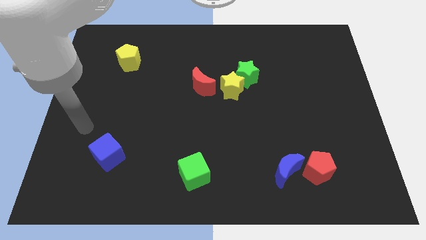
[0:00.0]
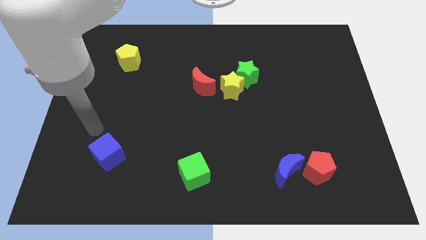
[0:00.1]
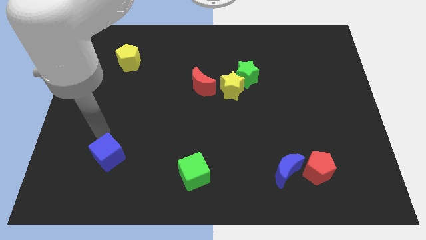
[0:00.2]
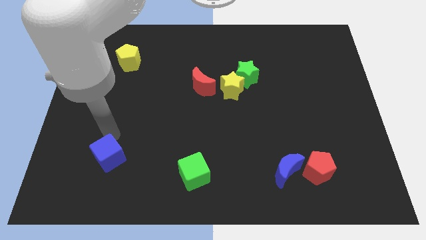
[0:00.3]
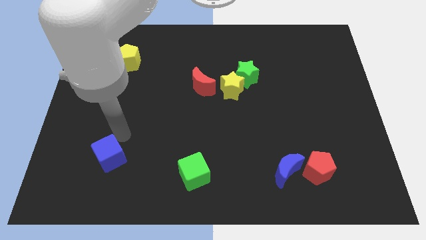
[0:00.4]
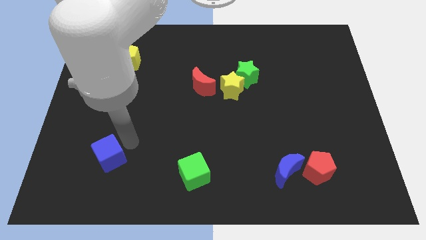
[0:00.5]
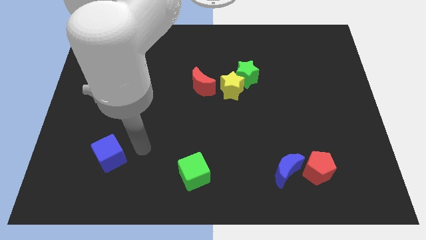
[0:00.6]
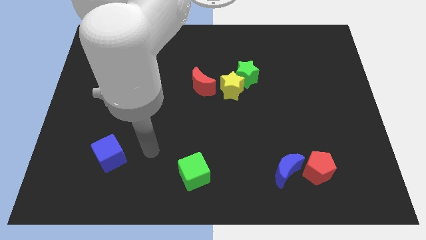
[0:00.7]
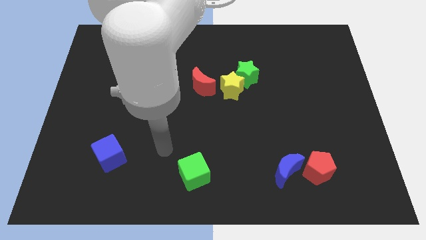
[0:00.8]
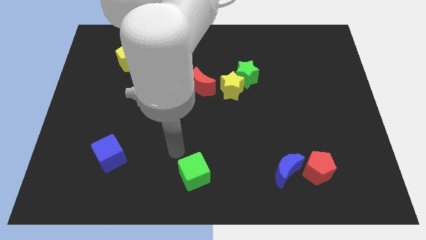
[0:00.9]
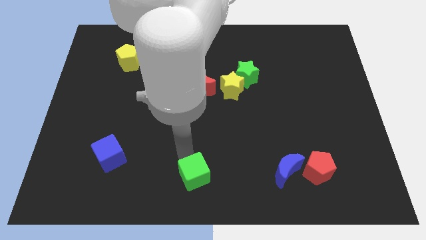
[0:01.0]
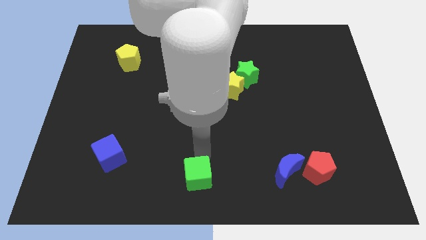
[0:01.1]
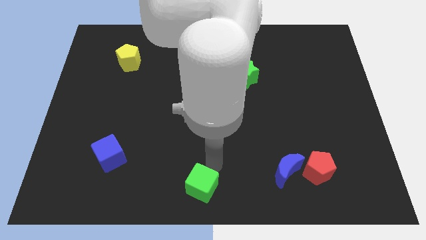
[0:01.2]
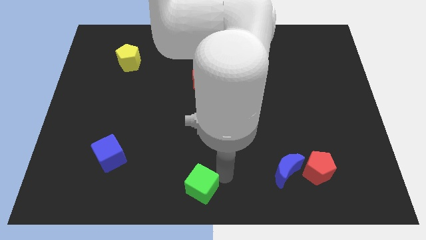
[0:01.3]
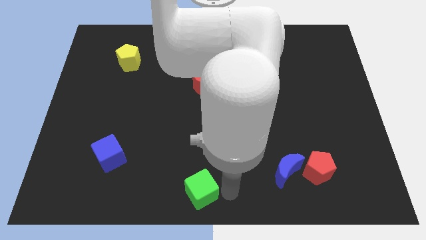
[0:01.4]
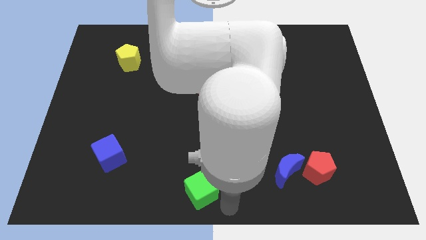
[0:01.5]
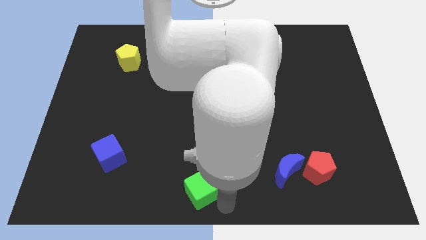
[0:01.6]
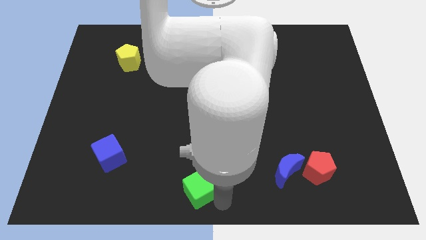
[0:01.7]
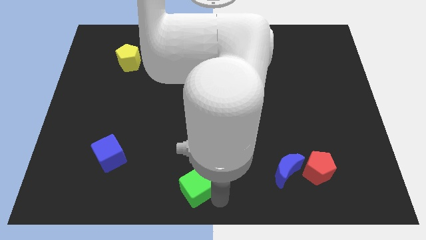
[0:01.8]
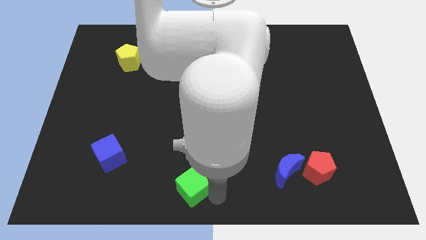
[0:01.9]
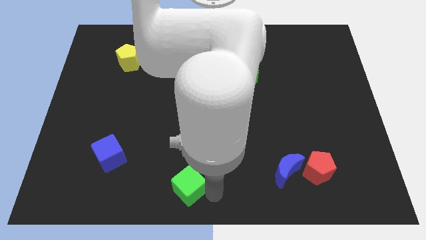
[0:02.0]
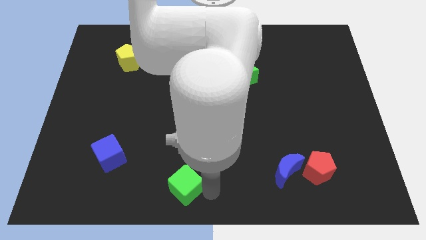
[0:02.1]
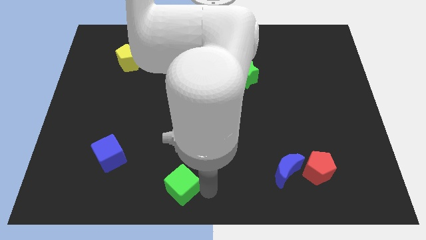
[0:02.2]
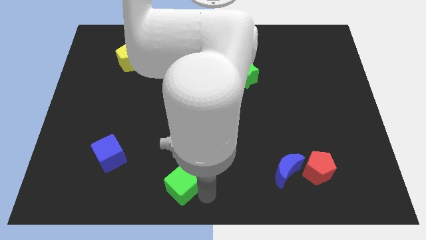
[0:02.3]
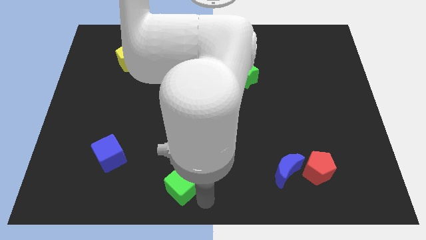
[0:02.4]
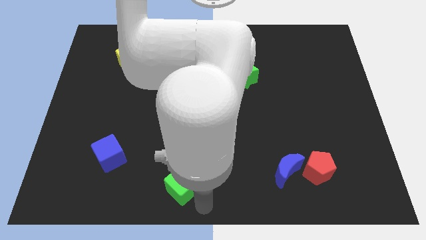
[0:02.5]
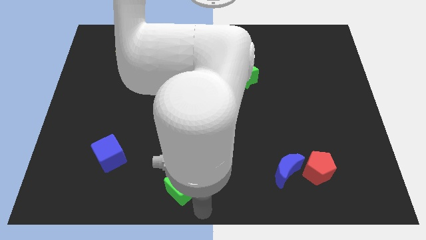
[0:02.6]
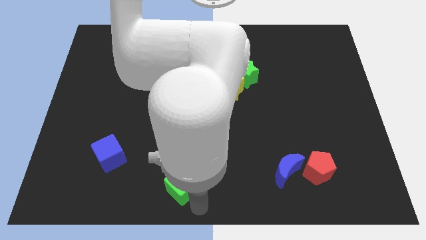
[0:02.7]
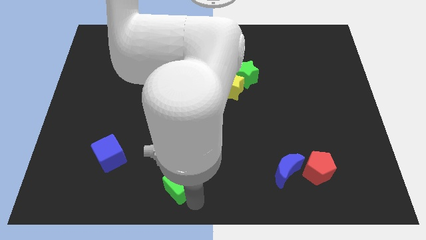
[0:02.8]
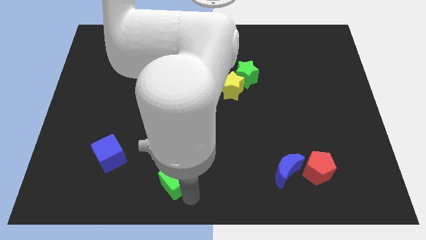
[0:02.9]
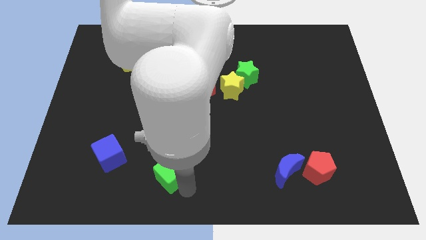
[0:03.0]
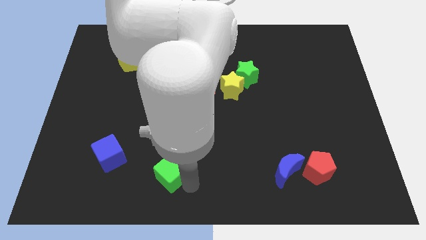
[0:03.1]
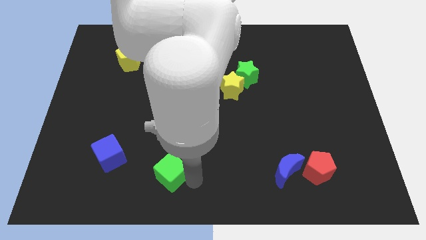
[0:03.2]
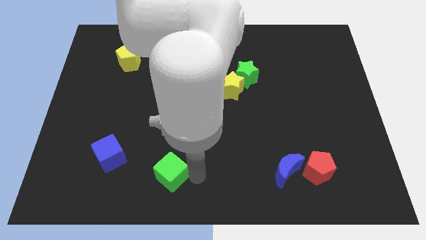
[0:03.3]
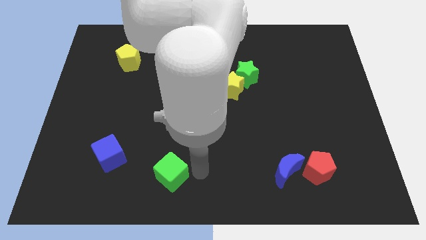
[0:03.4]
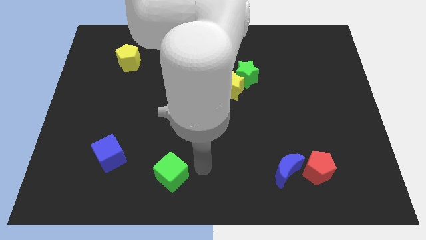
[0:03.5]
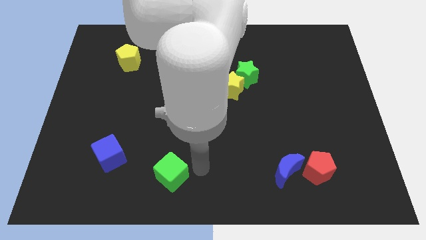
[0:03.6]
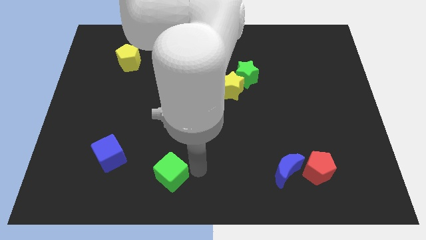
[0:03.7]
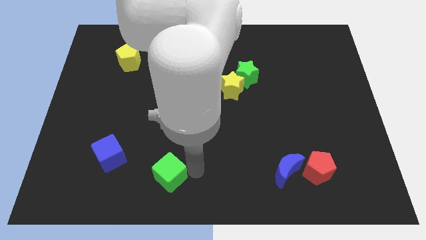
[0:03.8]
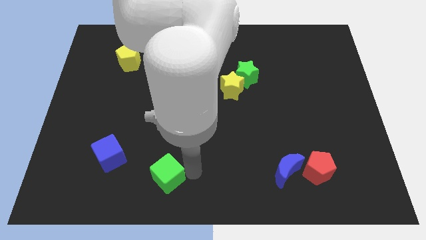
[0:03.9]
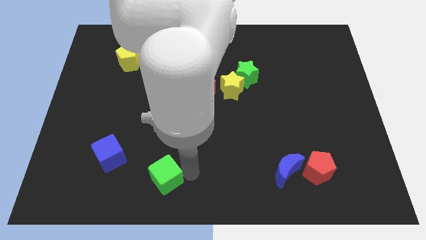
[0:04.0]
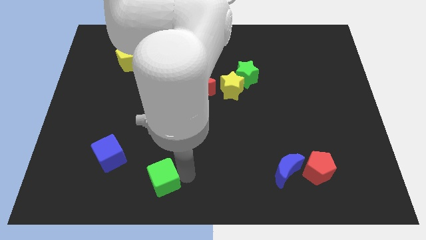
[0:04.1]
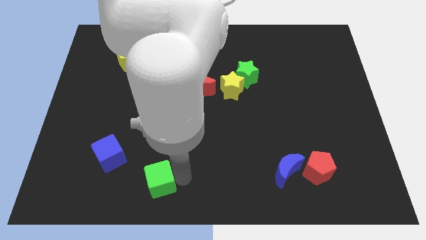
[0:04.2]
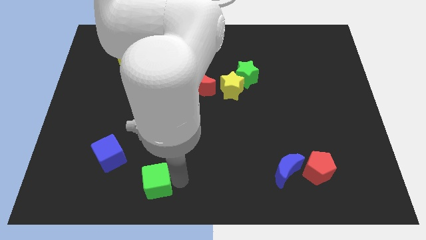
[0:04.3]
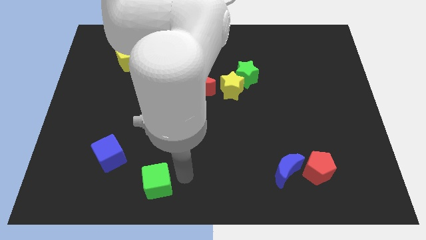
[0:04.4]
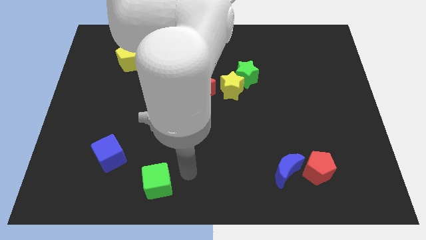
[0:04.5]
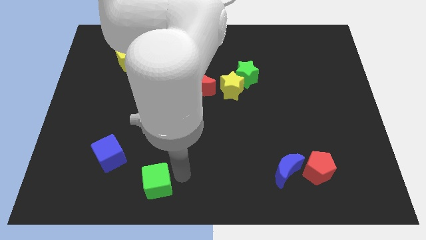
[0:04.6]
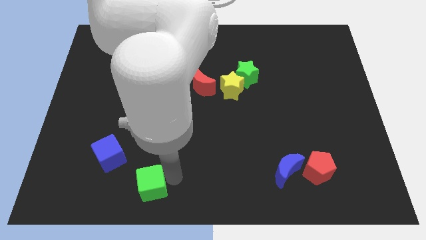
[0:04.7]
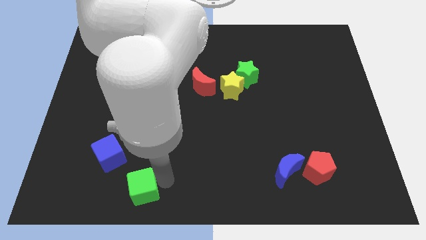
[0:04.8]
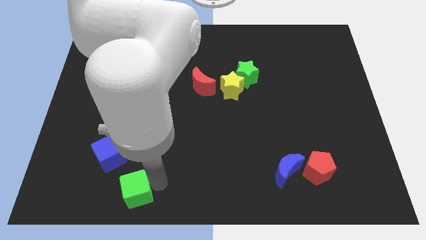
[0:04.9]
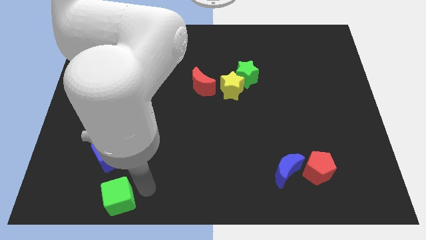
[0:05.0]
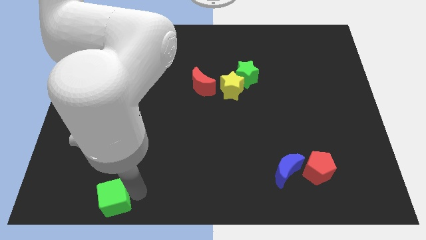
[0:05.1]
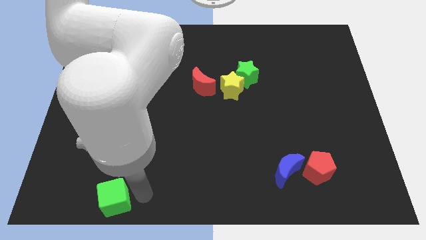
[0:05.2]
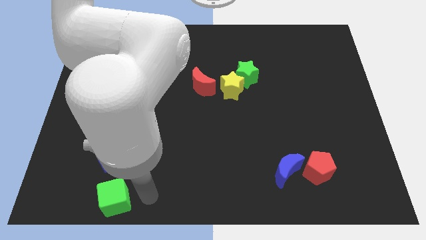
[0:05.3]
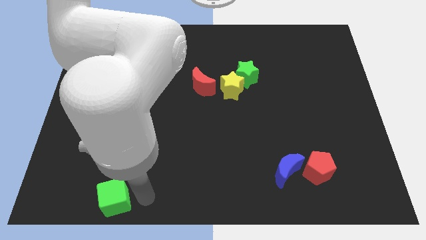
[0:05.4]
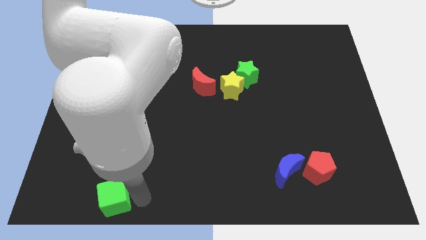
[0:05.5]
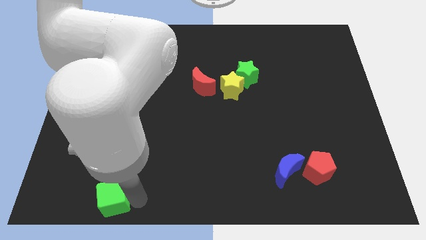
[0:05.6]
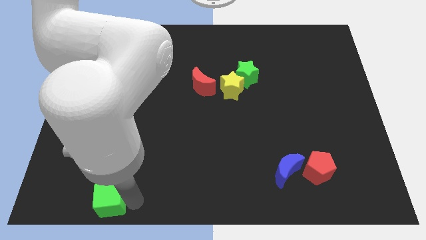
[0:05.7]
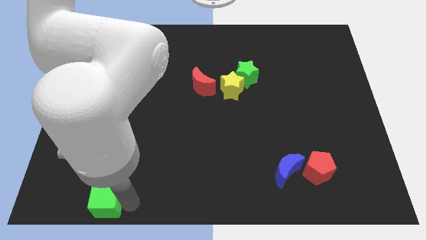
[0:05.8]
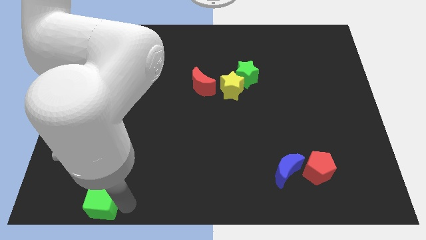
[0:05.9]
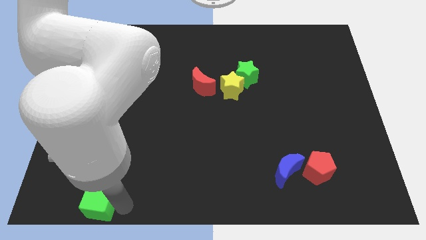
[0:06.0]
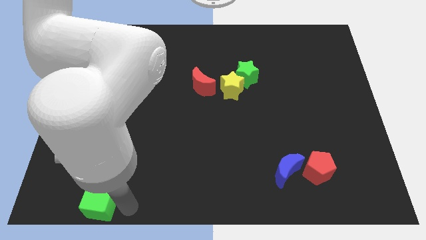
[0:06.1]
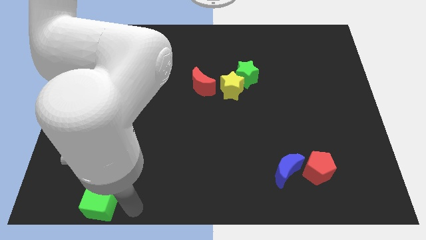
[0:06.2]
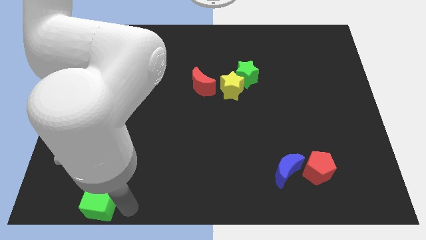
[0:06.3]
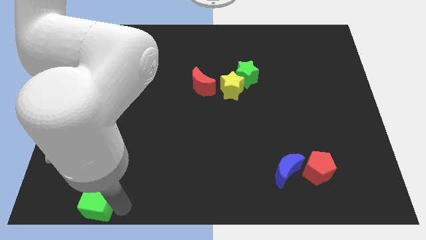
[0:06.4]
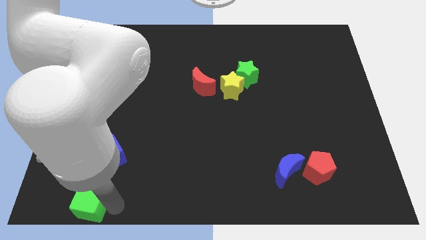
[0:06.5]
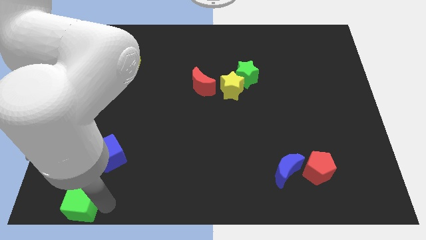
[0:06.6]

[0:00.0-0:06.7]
put the green cube to the bottom left corner
